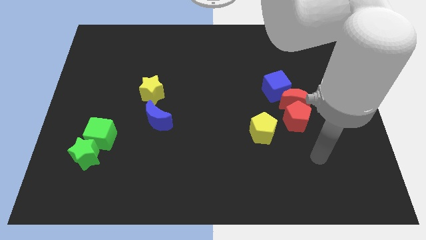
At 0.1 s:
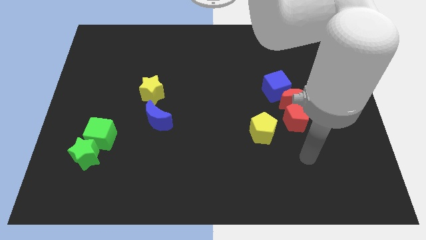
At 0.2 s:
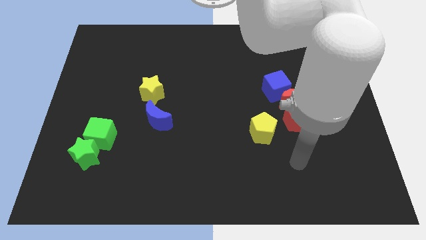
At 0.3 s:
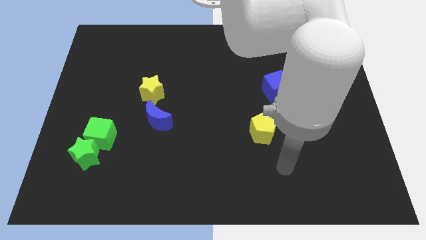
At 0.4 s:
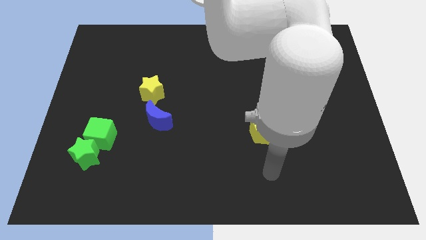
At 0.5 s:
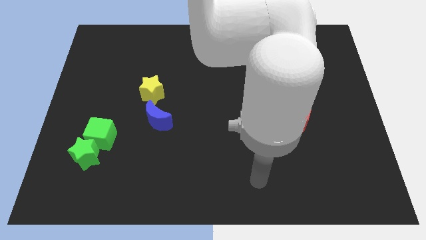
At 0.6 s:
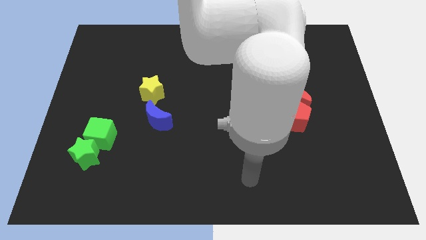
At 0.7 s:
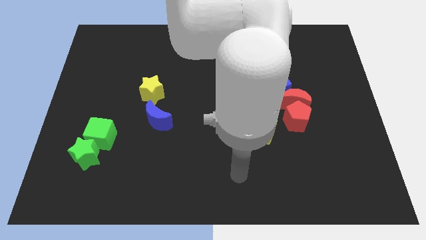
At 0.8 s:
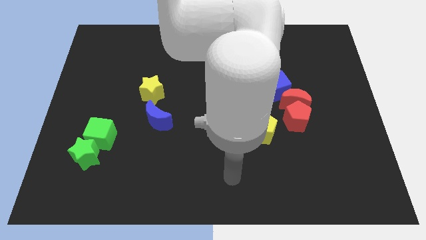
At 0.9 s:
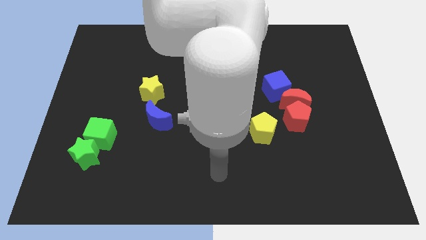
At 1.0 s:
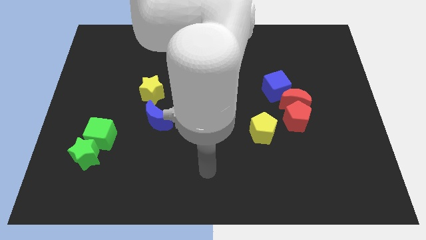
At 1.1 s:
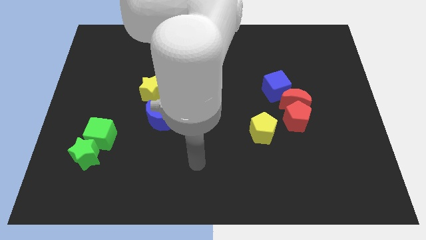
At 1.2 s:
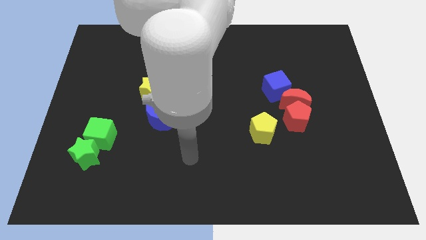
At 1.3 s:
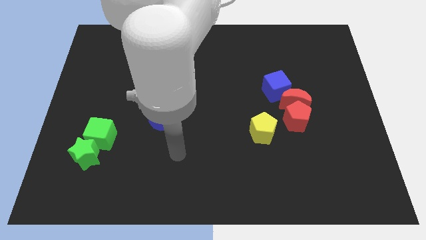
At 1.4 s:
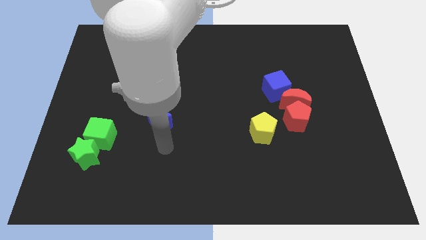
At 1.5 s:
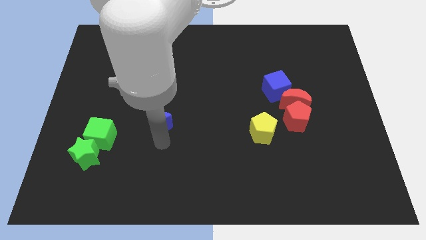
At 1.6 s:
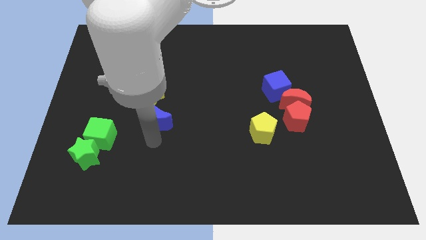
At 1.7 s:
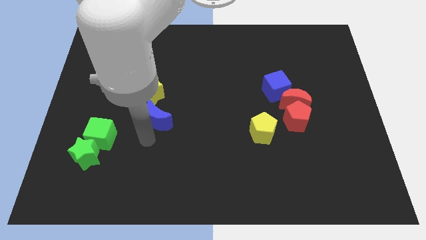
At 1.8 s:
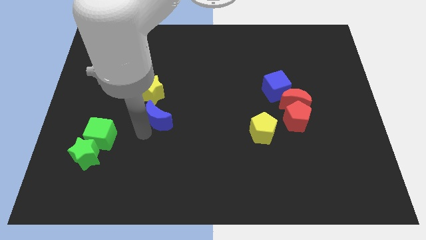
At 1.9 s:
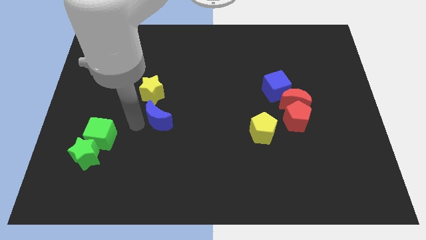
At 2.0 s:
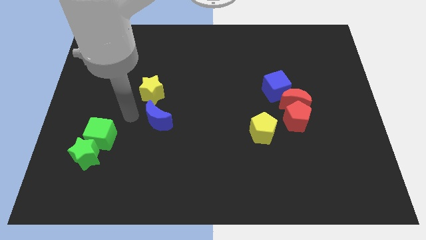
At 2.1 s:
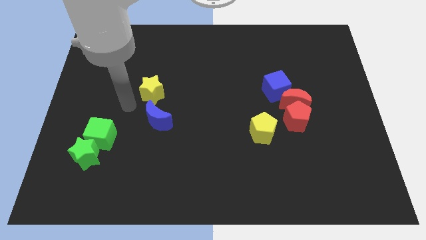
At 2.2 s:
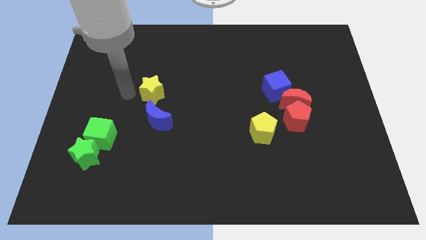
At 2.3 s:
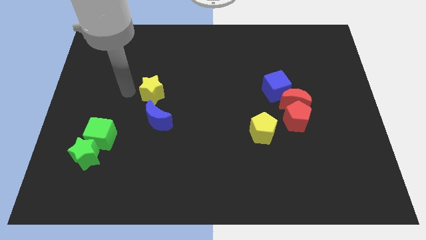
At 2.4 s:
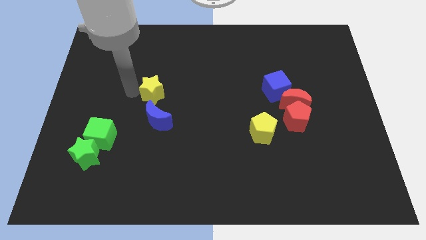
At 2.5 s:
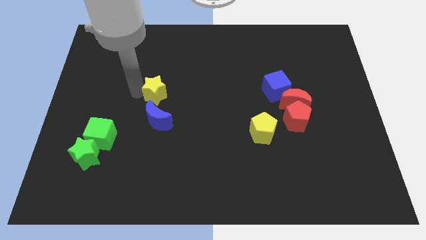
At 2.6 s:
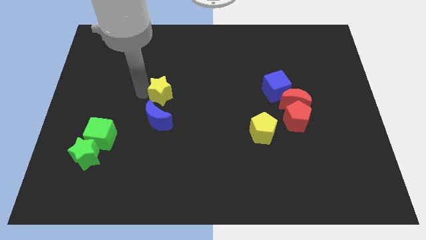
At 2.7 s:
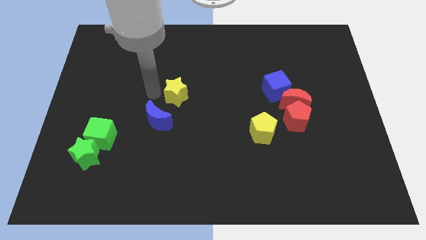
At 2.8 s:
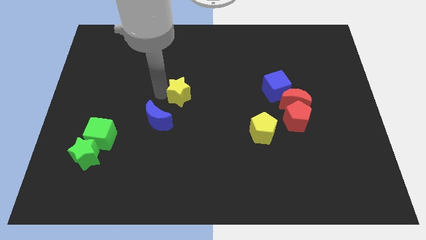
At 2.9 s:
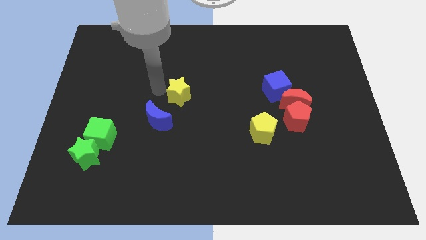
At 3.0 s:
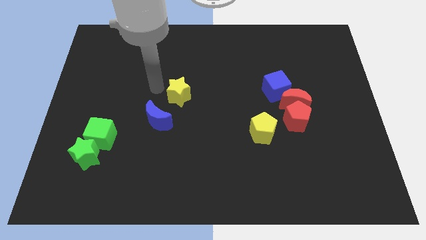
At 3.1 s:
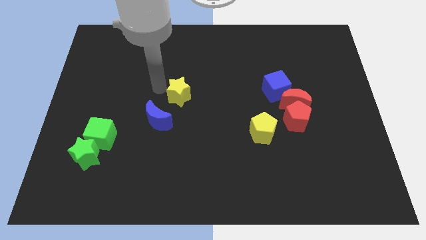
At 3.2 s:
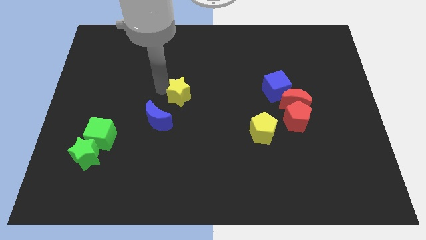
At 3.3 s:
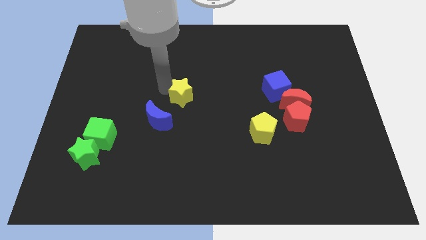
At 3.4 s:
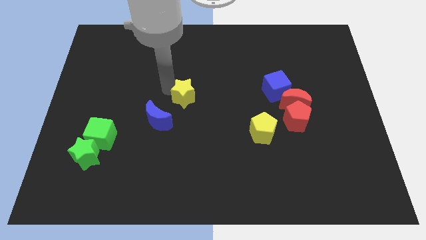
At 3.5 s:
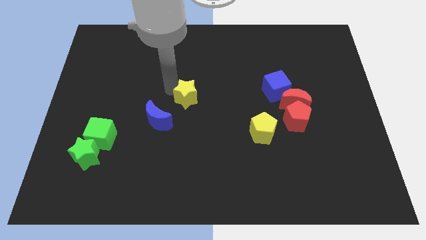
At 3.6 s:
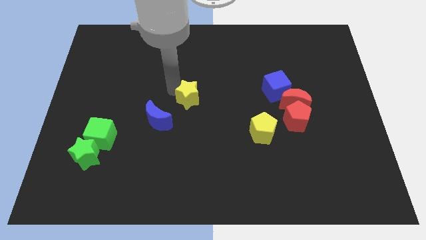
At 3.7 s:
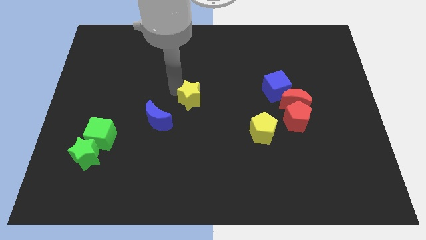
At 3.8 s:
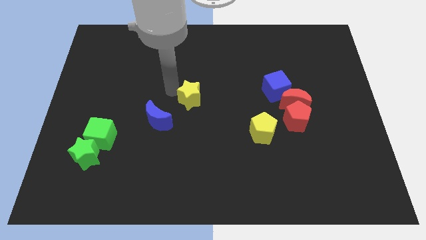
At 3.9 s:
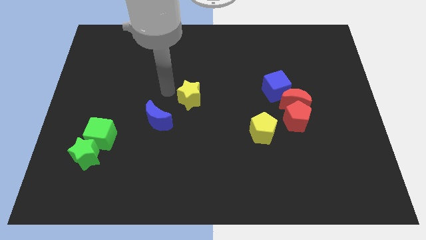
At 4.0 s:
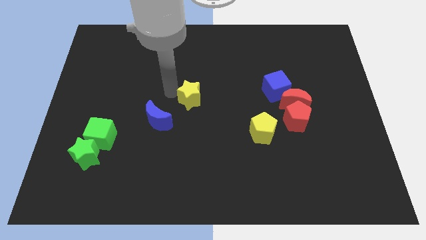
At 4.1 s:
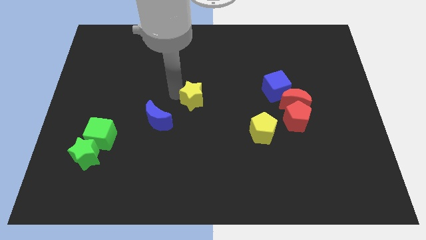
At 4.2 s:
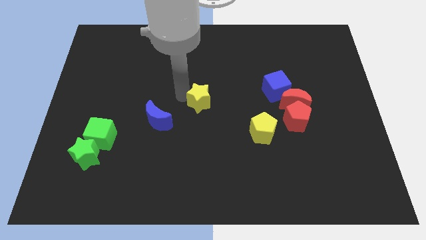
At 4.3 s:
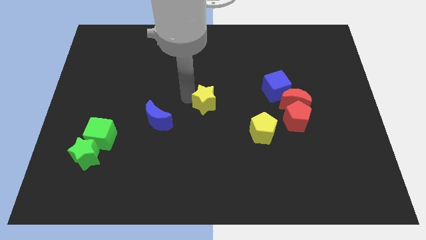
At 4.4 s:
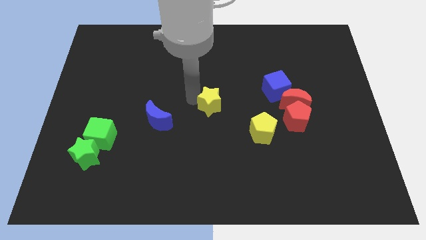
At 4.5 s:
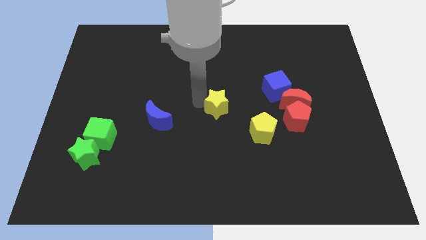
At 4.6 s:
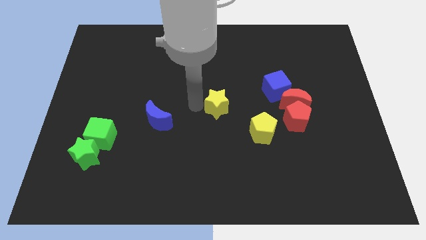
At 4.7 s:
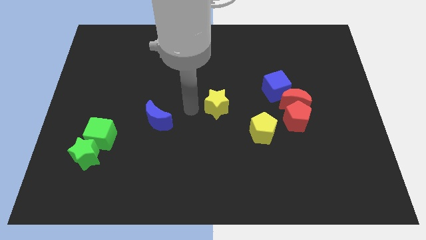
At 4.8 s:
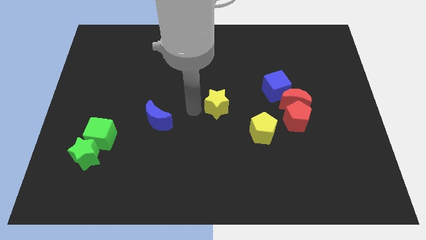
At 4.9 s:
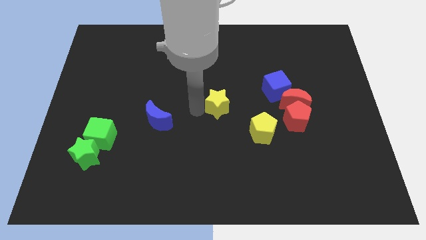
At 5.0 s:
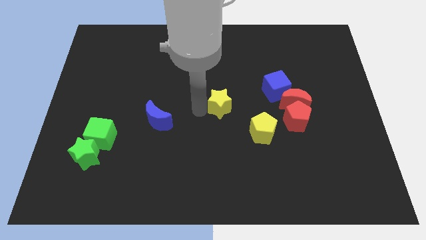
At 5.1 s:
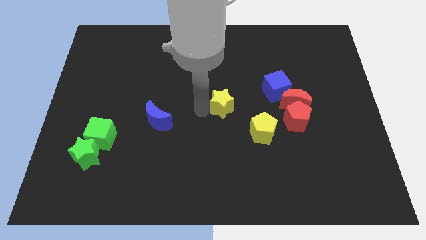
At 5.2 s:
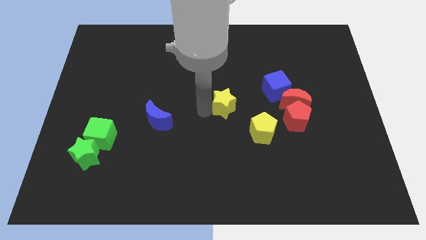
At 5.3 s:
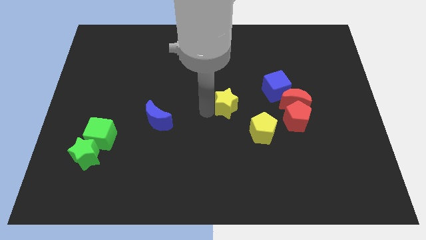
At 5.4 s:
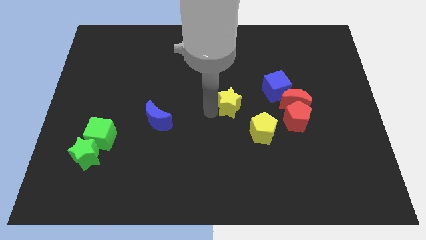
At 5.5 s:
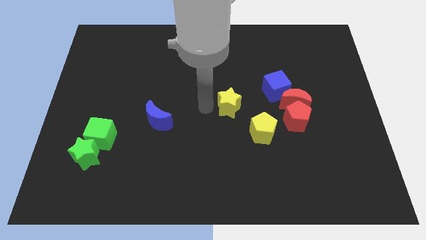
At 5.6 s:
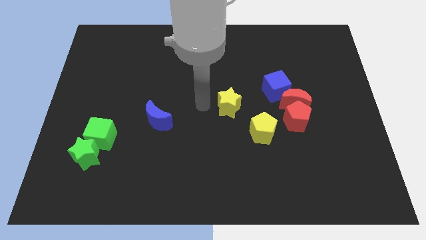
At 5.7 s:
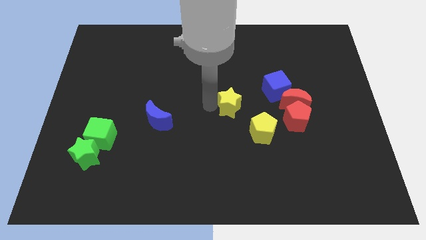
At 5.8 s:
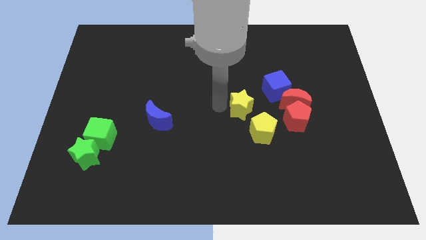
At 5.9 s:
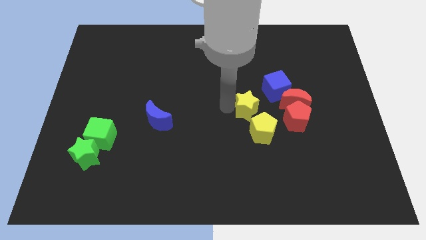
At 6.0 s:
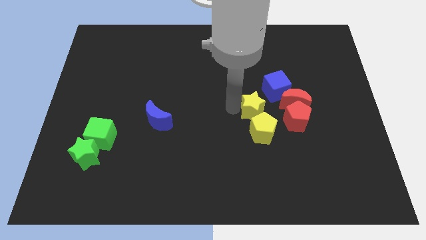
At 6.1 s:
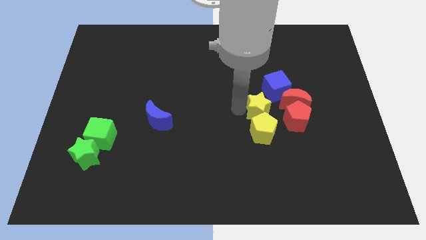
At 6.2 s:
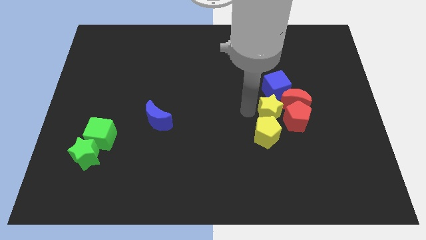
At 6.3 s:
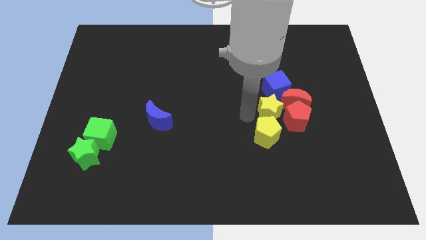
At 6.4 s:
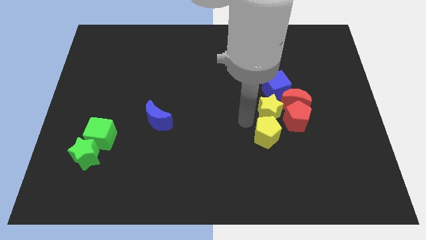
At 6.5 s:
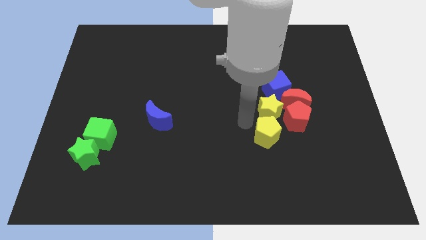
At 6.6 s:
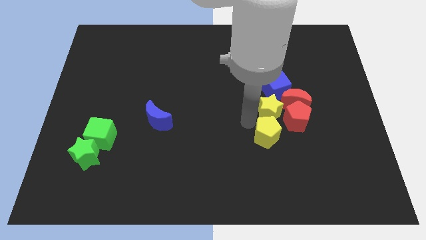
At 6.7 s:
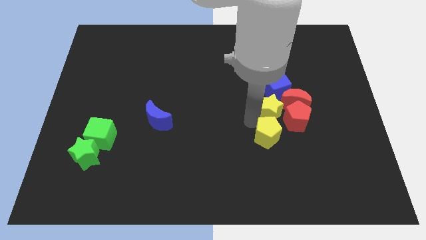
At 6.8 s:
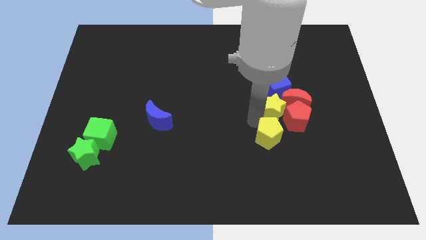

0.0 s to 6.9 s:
put the yellow star towards the red moon

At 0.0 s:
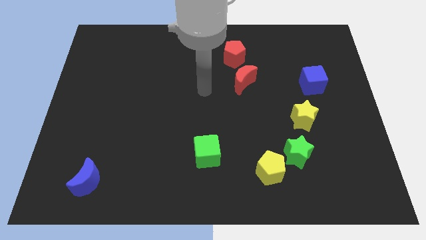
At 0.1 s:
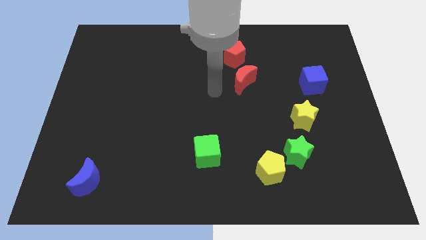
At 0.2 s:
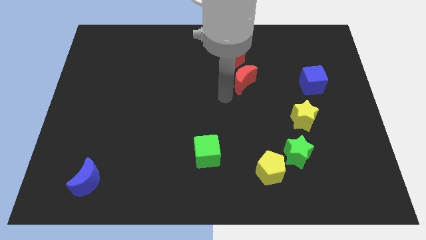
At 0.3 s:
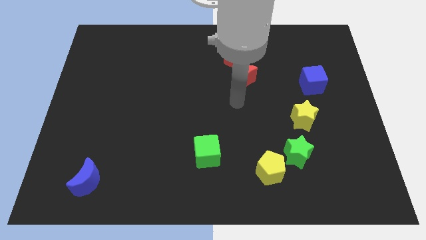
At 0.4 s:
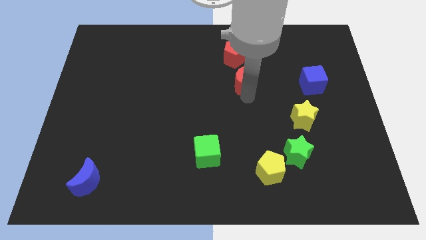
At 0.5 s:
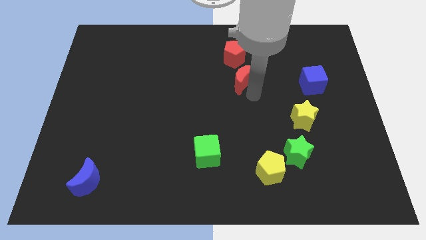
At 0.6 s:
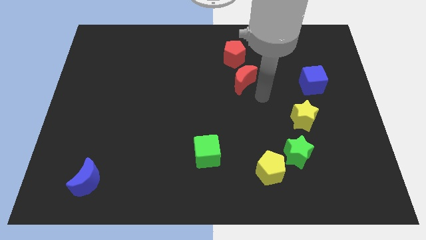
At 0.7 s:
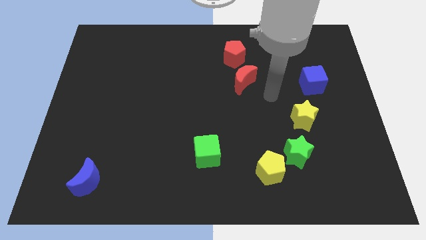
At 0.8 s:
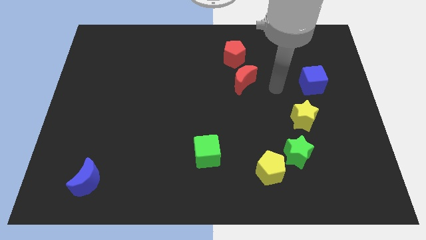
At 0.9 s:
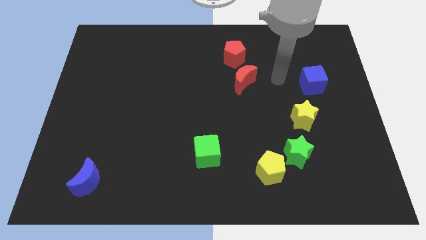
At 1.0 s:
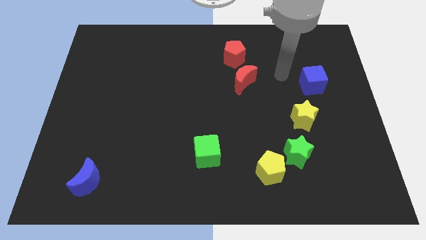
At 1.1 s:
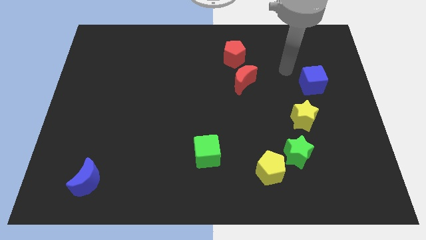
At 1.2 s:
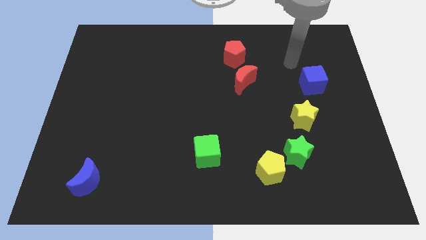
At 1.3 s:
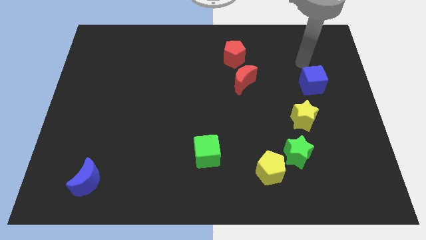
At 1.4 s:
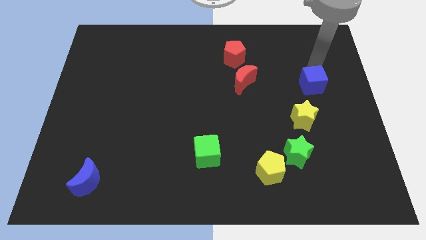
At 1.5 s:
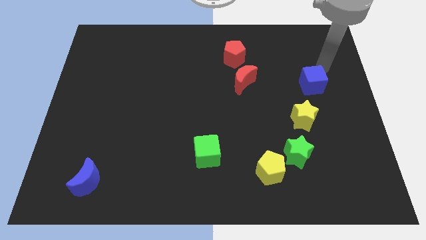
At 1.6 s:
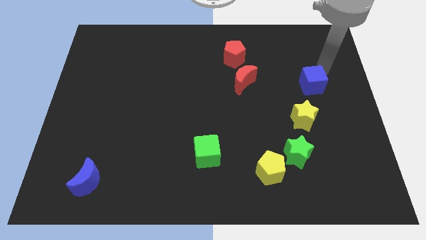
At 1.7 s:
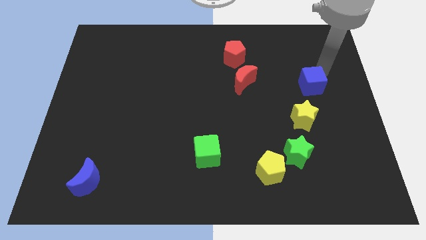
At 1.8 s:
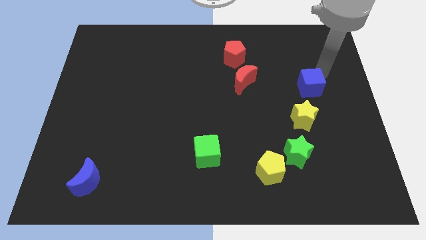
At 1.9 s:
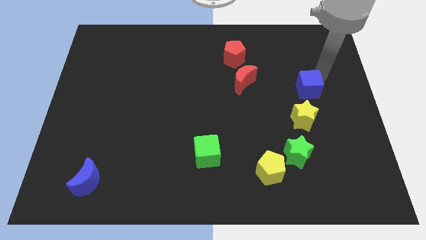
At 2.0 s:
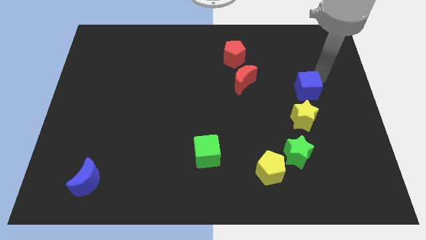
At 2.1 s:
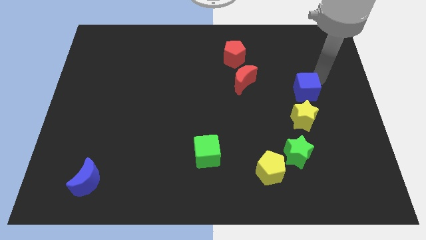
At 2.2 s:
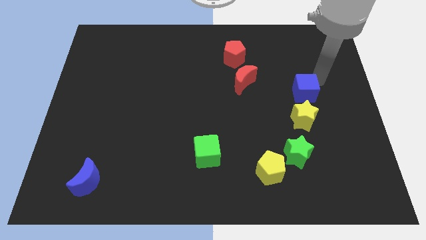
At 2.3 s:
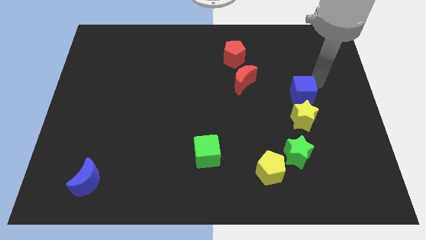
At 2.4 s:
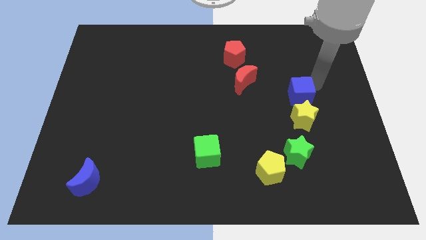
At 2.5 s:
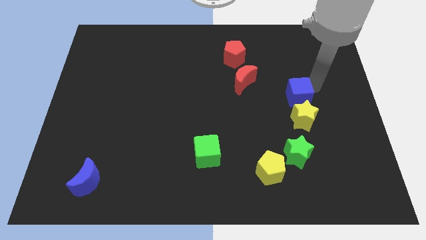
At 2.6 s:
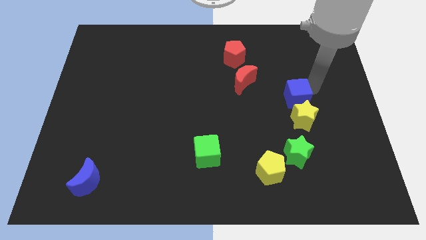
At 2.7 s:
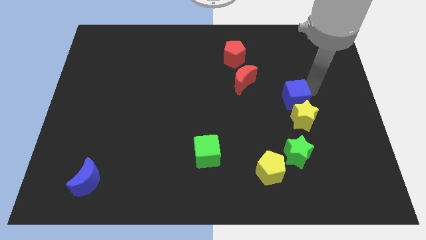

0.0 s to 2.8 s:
move the blue cube next to the yellow star
